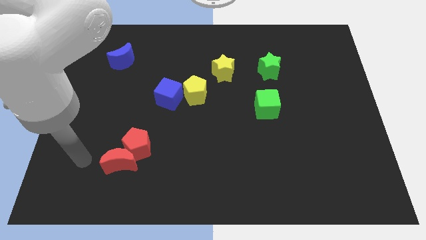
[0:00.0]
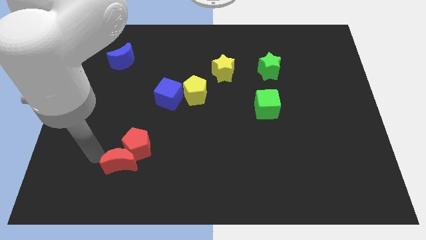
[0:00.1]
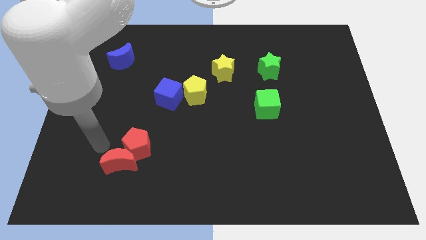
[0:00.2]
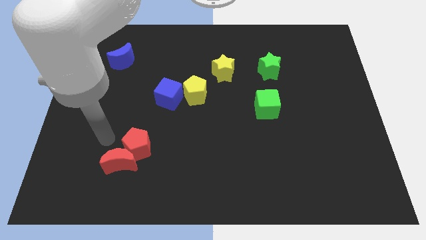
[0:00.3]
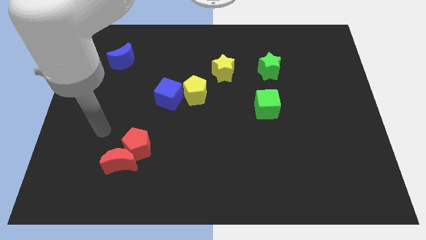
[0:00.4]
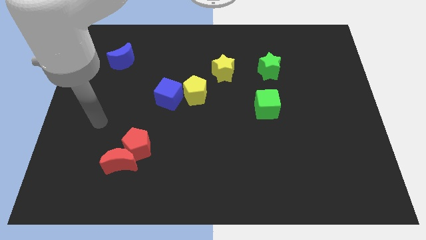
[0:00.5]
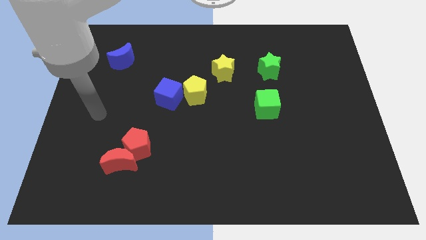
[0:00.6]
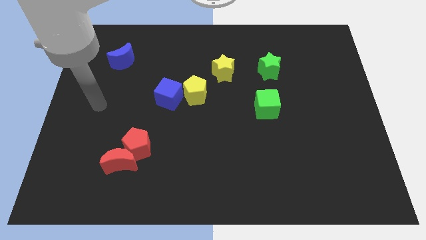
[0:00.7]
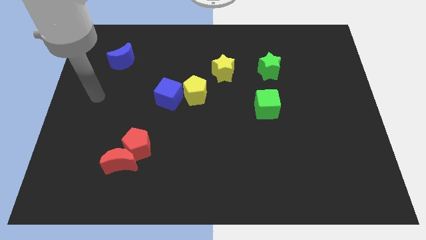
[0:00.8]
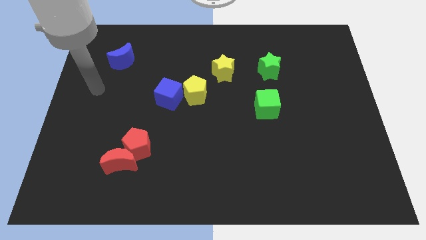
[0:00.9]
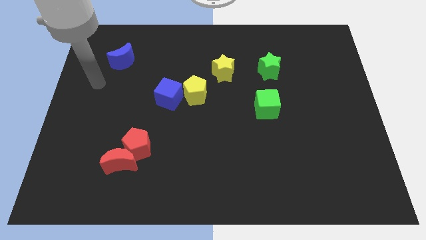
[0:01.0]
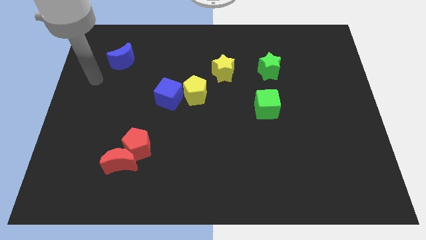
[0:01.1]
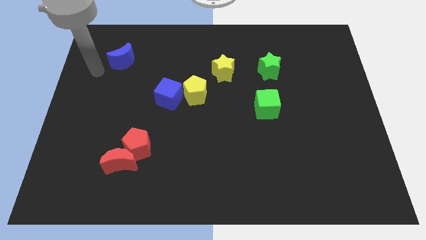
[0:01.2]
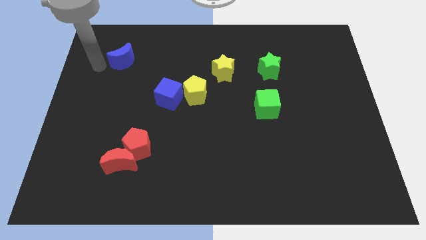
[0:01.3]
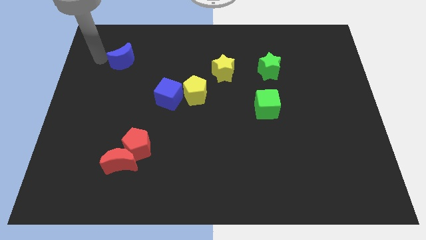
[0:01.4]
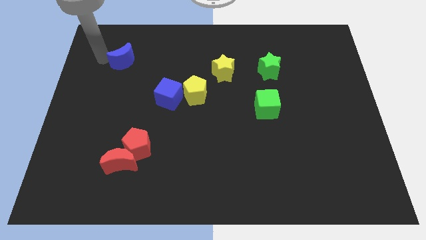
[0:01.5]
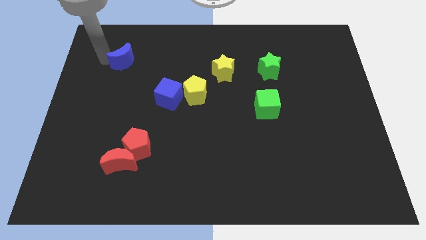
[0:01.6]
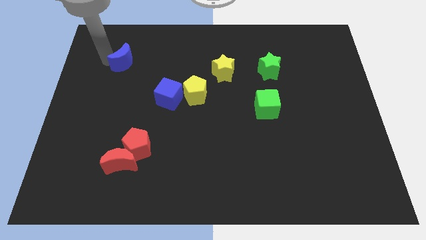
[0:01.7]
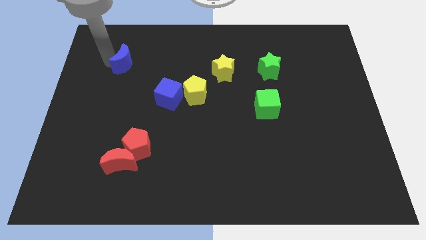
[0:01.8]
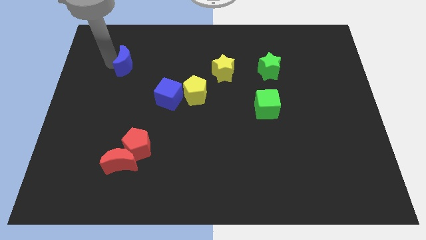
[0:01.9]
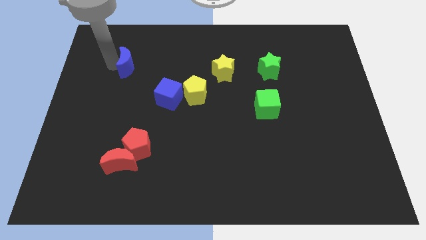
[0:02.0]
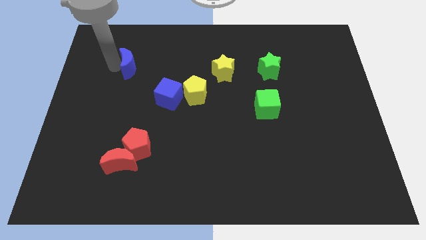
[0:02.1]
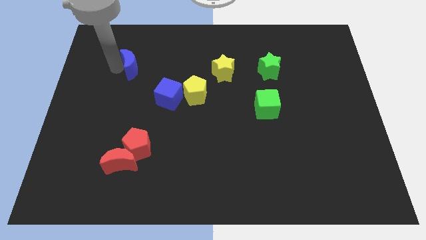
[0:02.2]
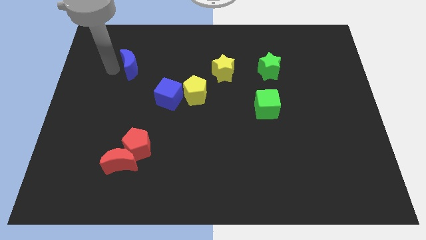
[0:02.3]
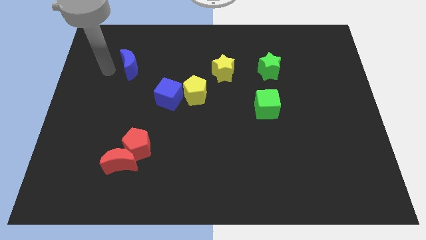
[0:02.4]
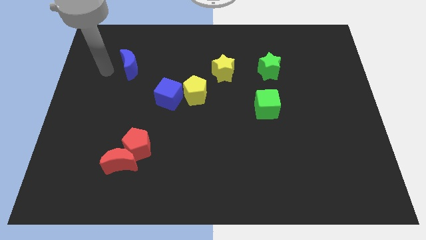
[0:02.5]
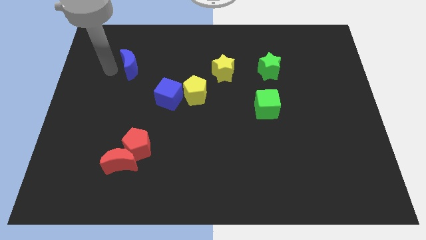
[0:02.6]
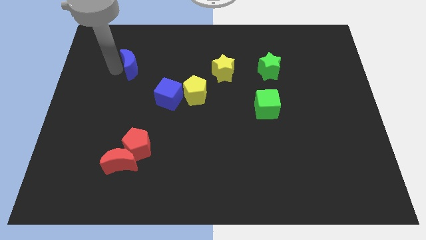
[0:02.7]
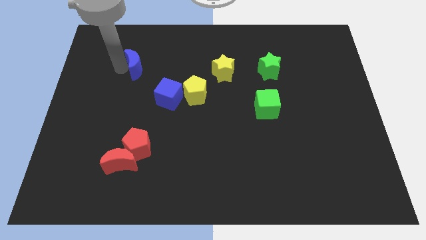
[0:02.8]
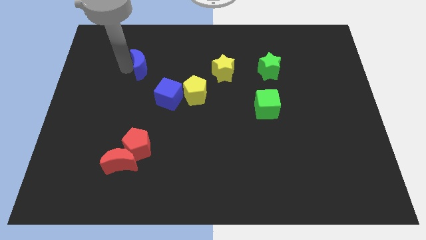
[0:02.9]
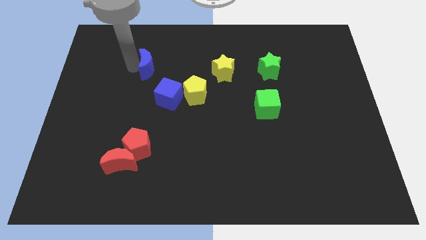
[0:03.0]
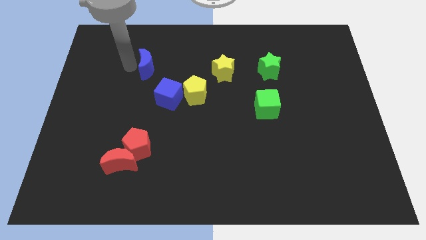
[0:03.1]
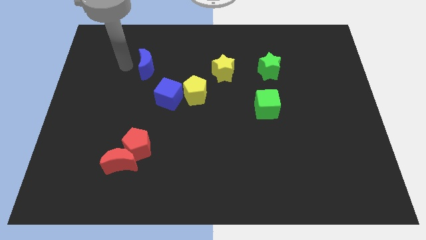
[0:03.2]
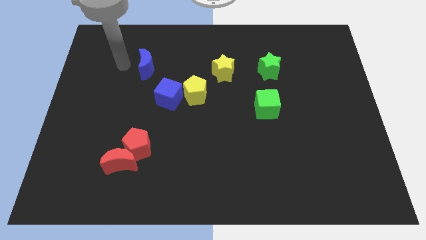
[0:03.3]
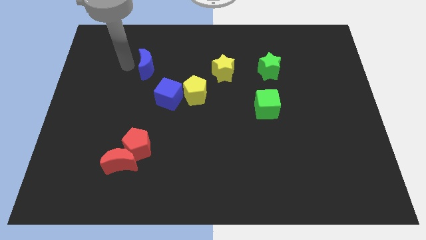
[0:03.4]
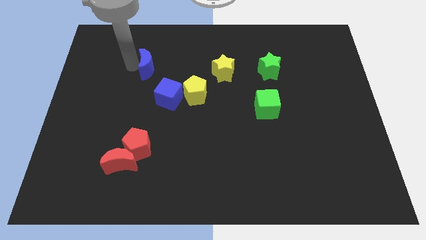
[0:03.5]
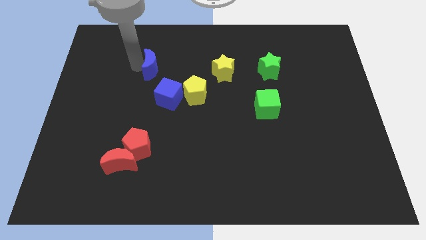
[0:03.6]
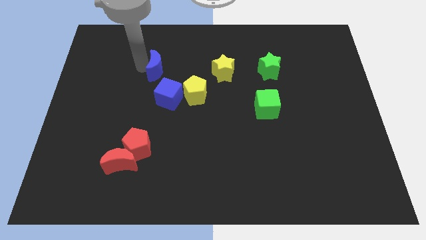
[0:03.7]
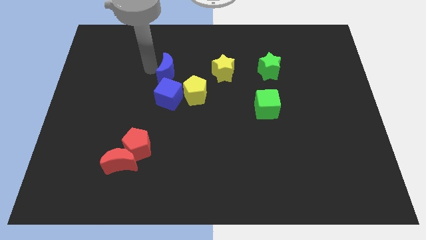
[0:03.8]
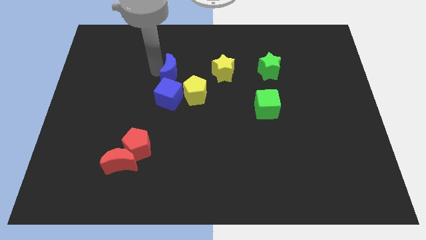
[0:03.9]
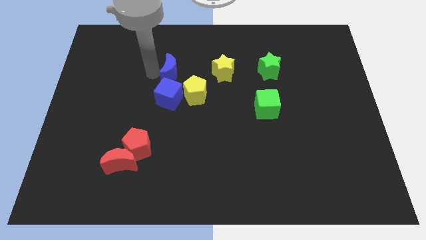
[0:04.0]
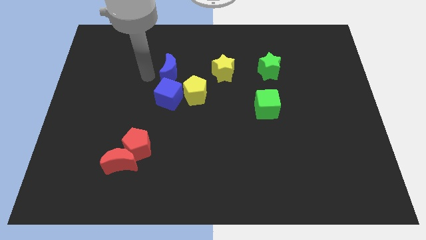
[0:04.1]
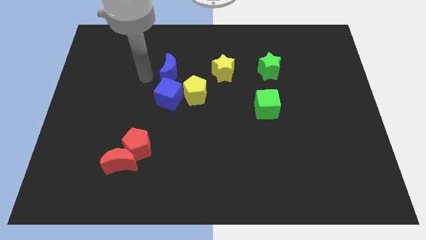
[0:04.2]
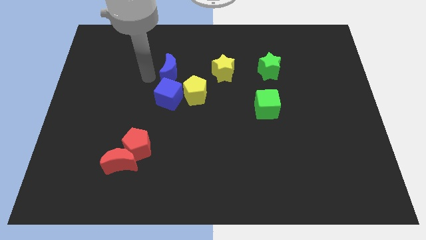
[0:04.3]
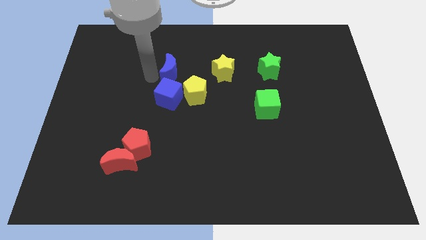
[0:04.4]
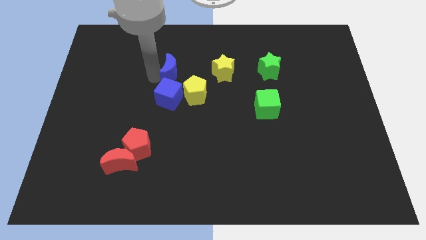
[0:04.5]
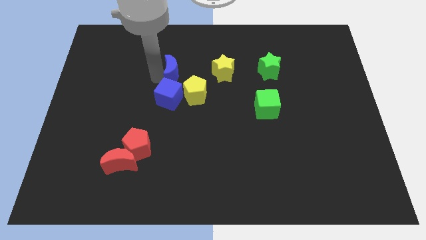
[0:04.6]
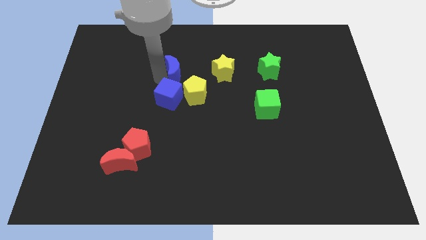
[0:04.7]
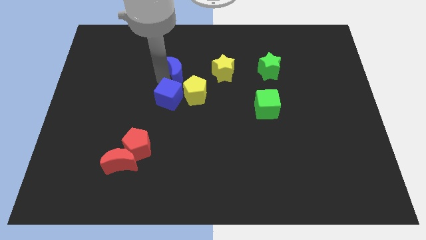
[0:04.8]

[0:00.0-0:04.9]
move the blue moon to the middle of the board
